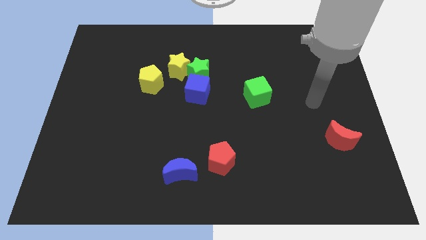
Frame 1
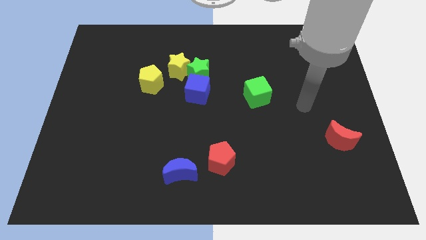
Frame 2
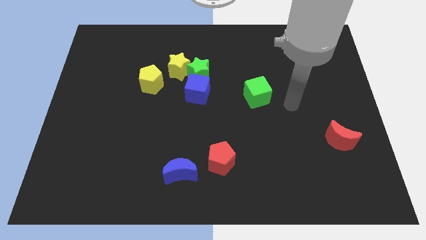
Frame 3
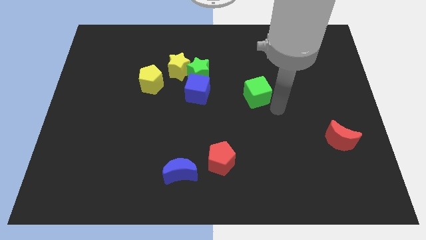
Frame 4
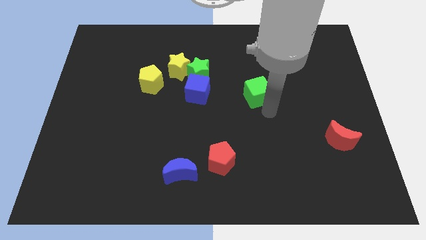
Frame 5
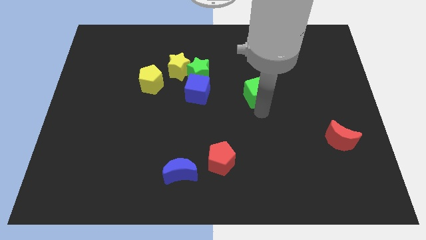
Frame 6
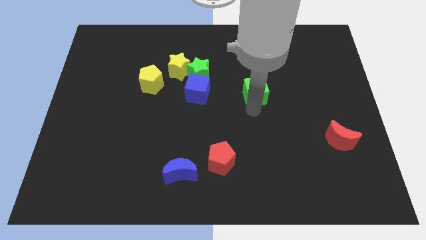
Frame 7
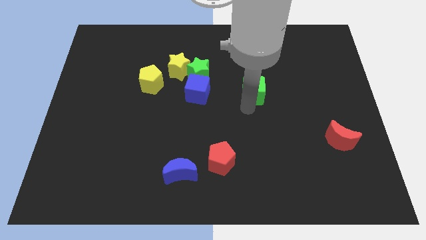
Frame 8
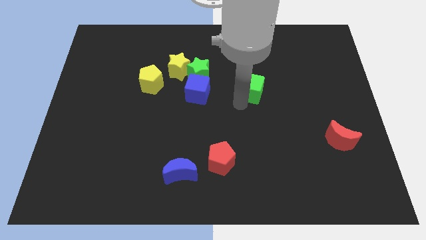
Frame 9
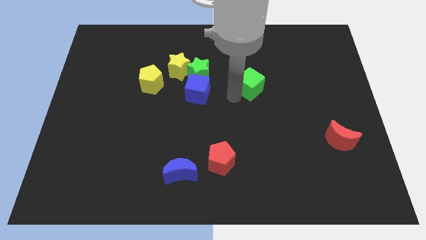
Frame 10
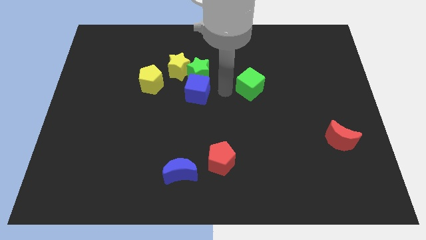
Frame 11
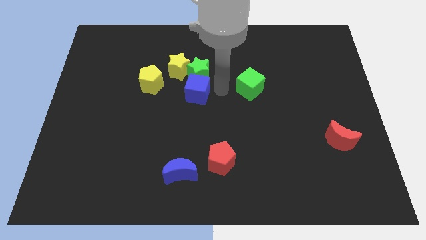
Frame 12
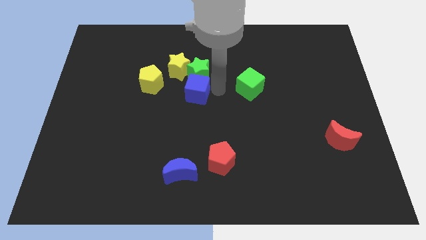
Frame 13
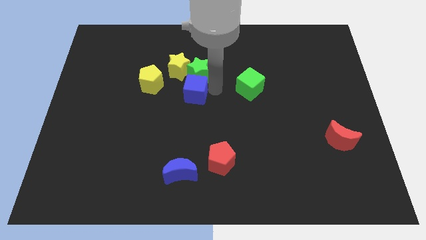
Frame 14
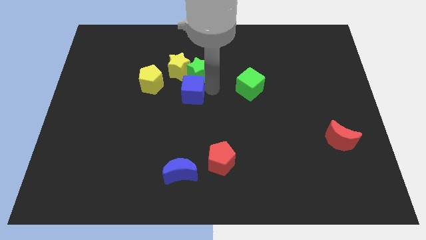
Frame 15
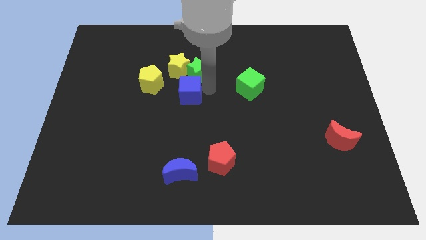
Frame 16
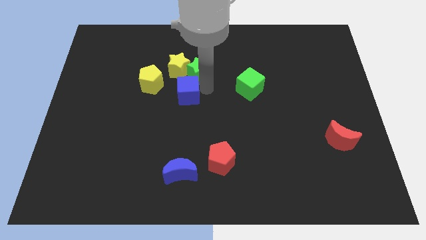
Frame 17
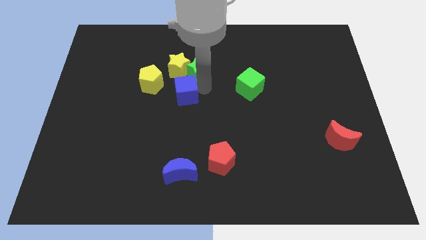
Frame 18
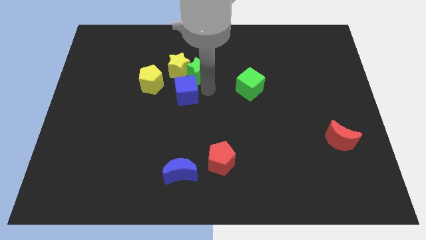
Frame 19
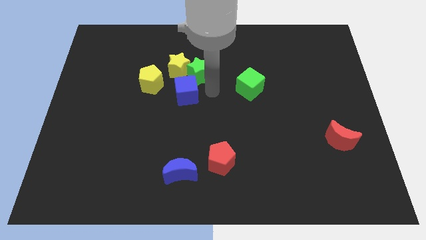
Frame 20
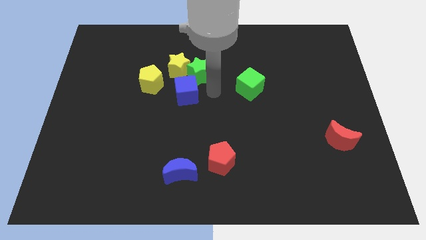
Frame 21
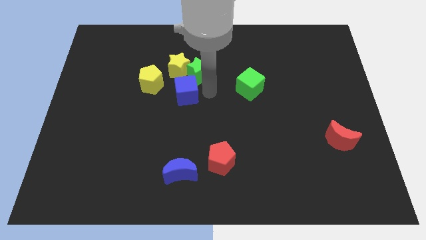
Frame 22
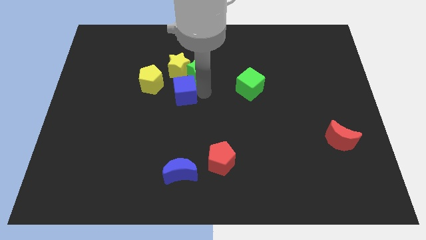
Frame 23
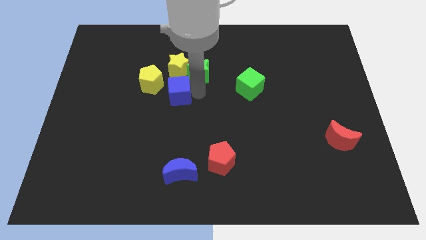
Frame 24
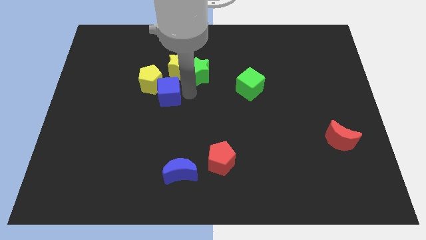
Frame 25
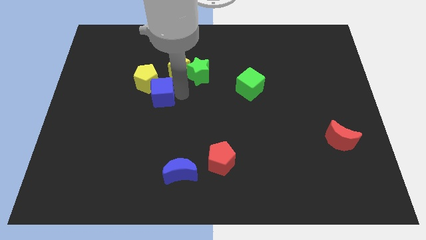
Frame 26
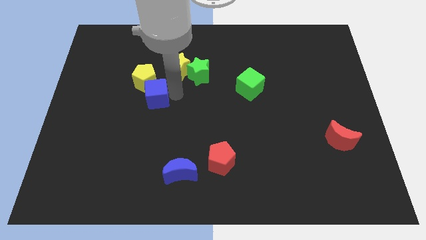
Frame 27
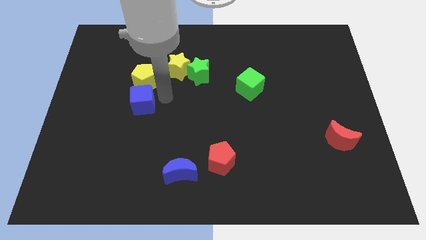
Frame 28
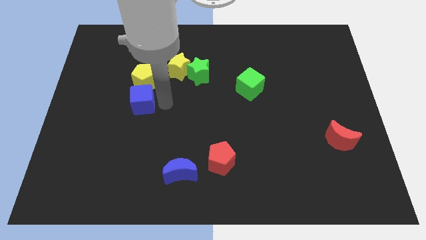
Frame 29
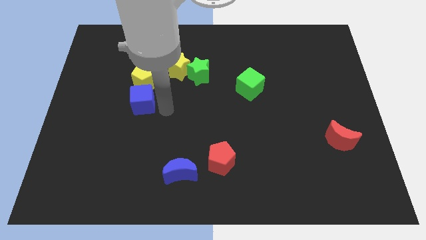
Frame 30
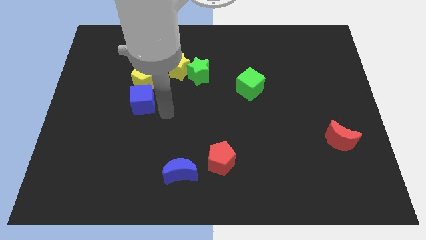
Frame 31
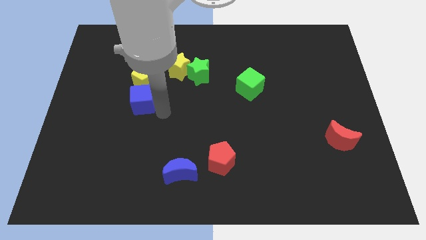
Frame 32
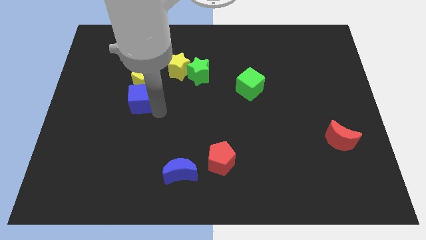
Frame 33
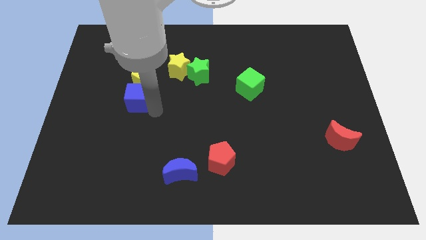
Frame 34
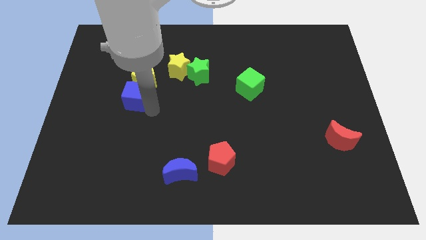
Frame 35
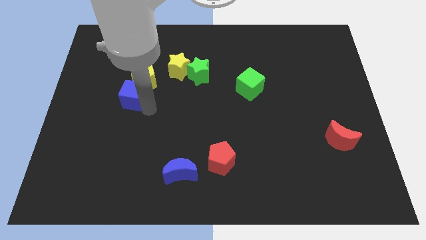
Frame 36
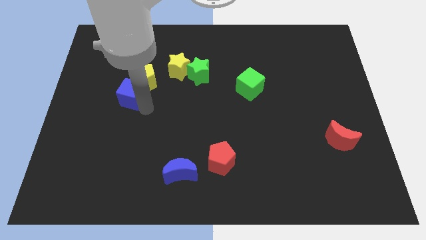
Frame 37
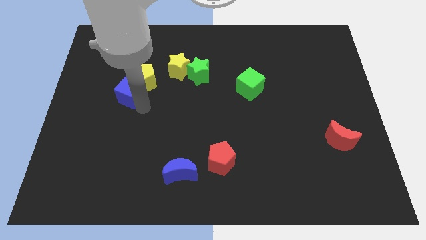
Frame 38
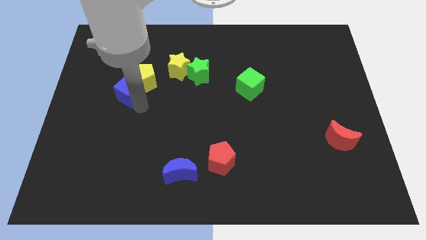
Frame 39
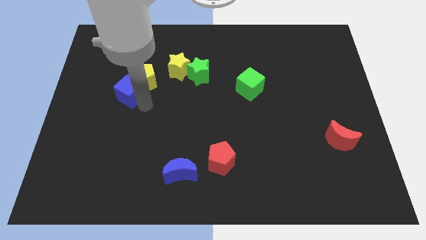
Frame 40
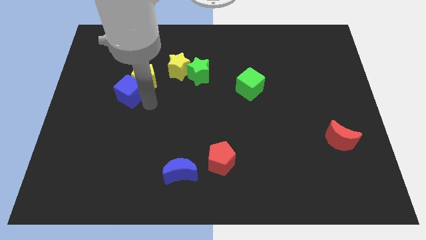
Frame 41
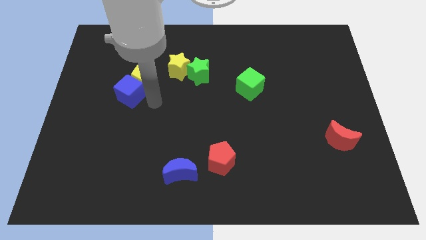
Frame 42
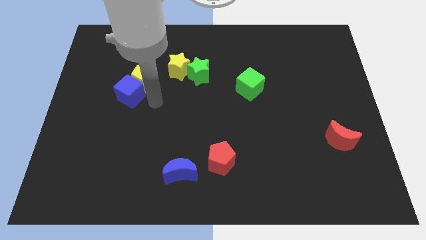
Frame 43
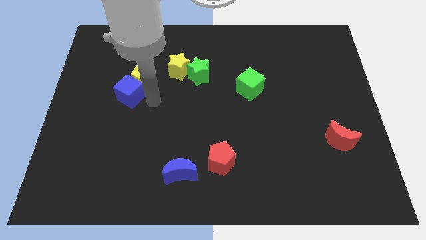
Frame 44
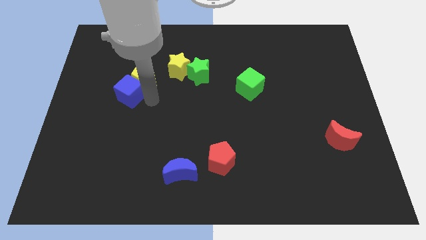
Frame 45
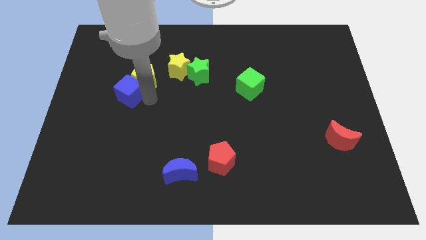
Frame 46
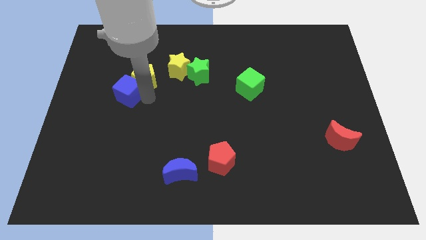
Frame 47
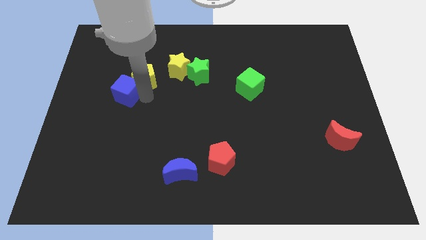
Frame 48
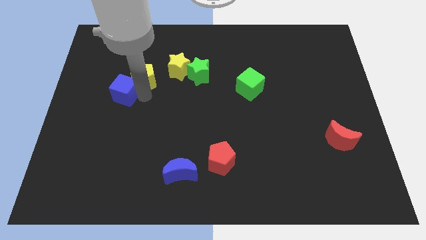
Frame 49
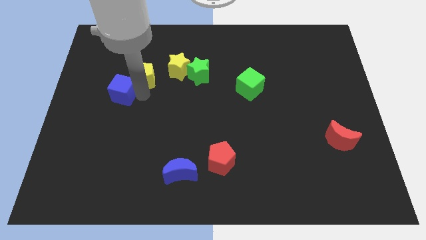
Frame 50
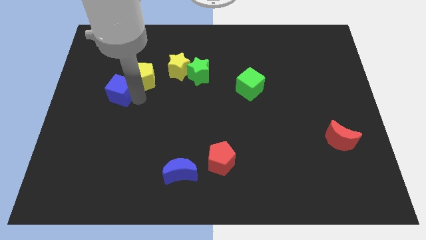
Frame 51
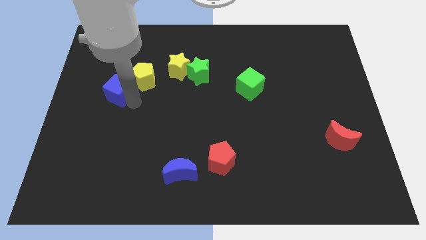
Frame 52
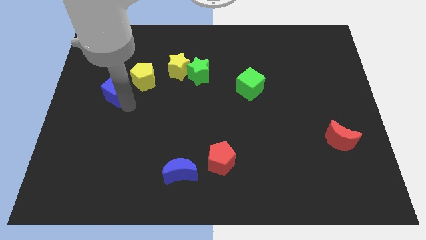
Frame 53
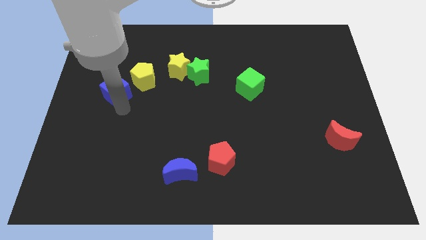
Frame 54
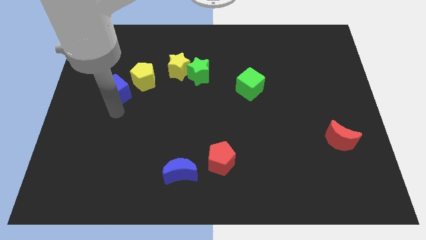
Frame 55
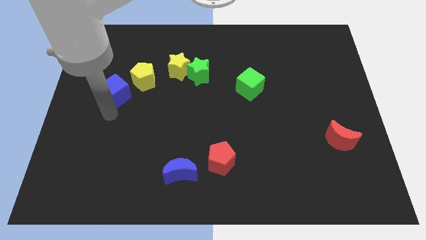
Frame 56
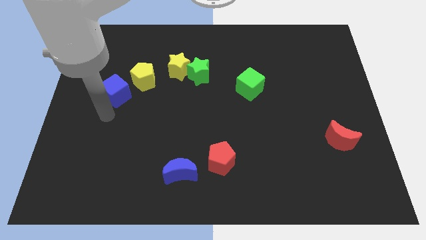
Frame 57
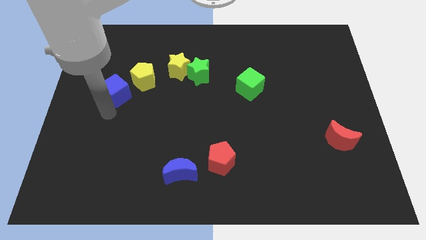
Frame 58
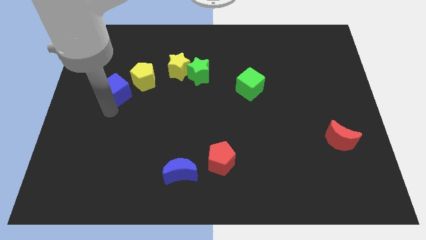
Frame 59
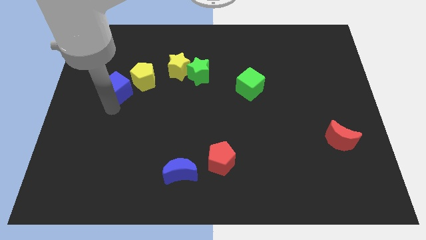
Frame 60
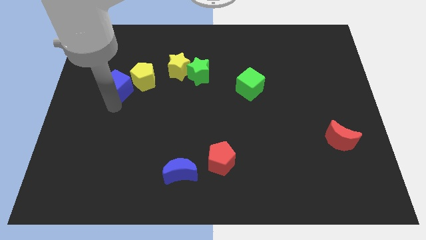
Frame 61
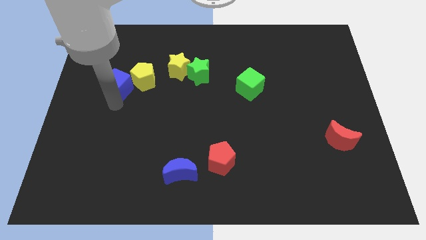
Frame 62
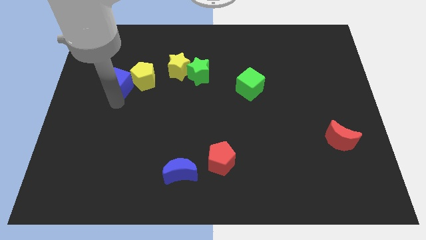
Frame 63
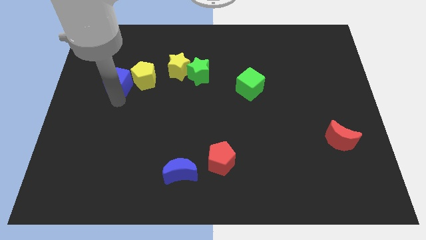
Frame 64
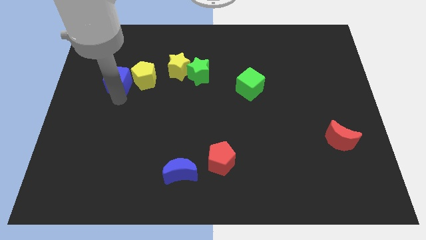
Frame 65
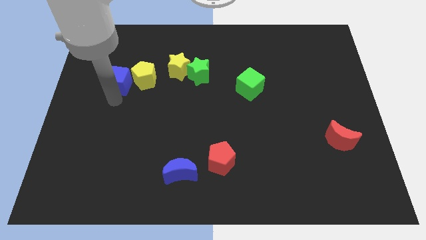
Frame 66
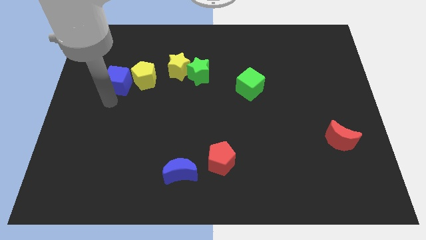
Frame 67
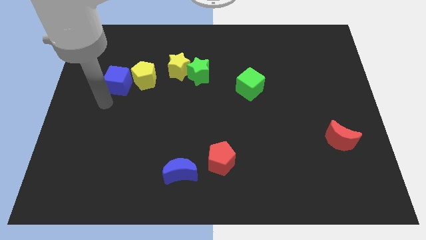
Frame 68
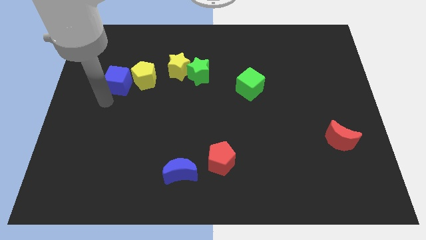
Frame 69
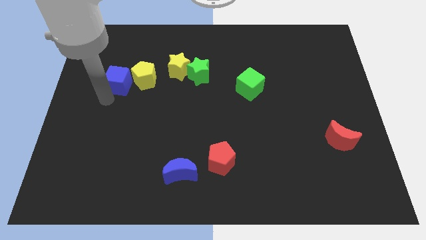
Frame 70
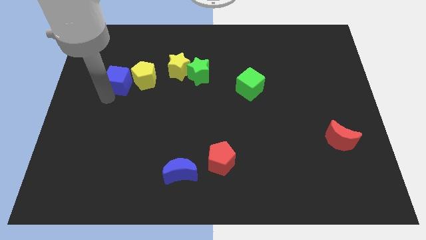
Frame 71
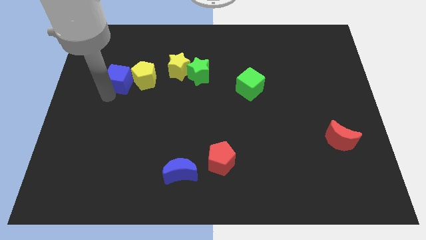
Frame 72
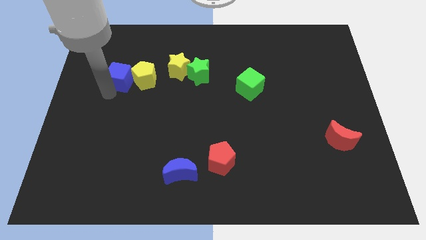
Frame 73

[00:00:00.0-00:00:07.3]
push the blue cube to the left side of the yellow star

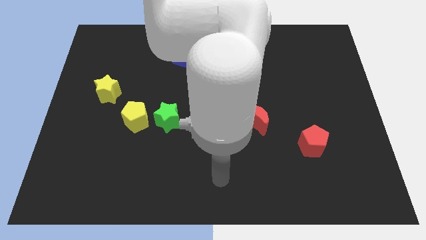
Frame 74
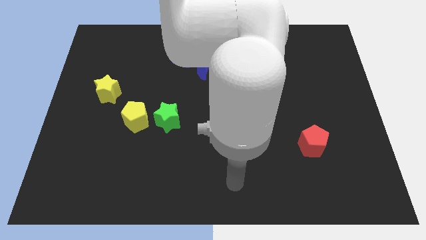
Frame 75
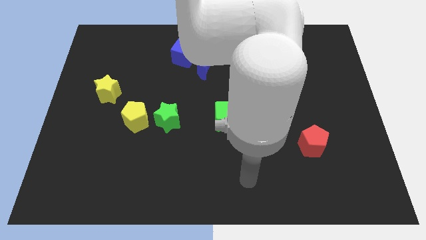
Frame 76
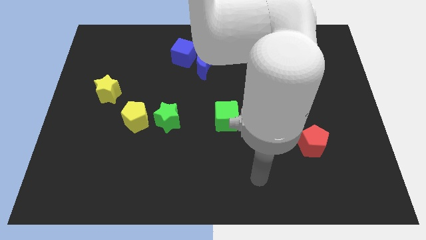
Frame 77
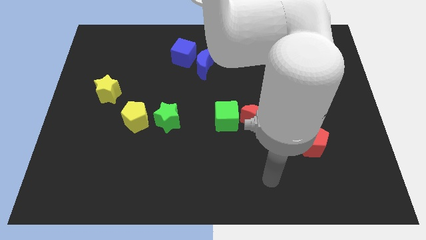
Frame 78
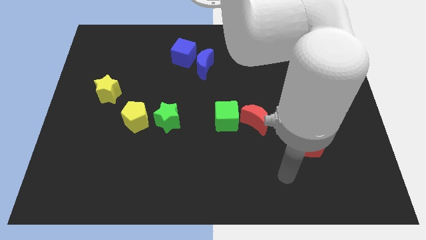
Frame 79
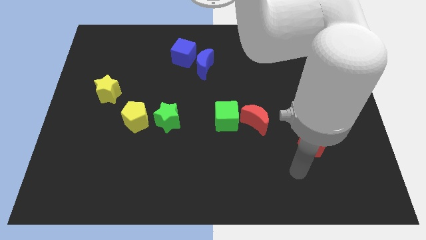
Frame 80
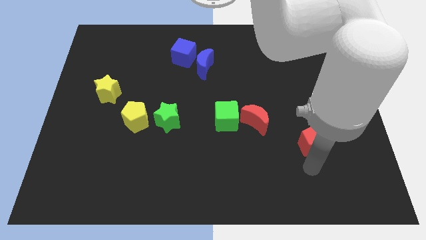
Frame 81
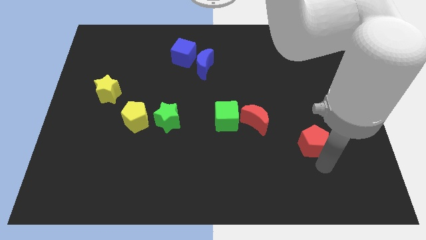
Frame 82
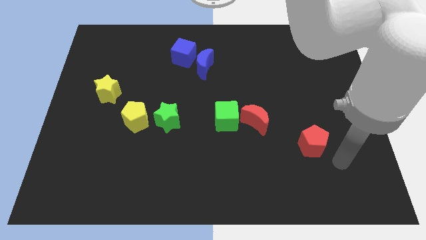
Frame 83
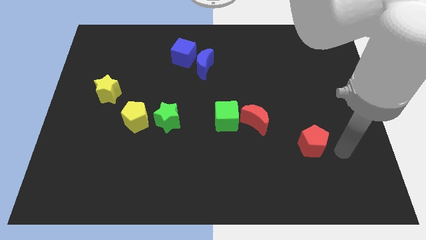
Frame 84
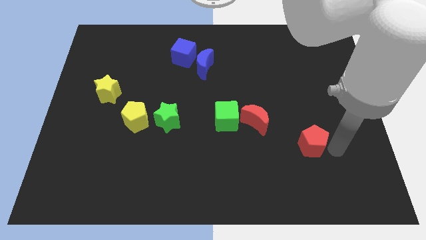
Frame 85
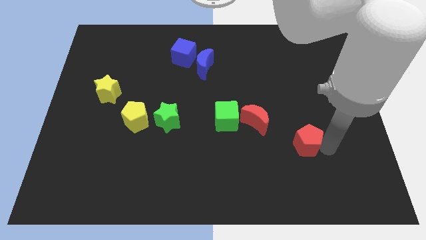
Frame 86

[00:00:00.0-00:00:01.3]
push the red pentagon to the bottom right side of the red moon
